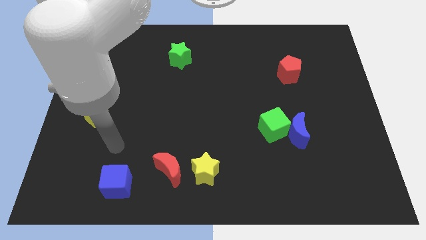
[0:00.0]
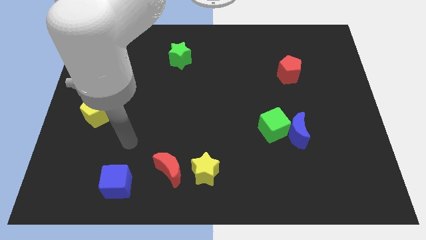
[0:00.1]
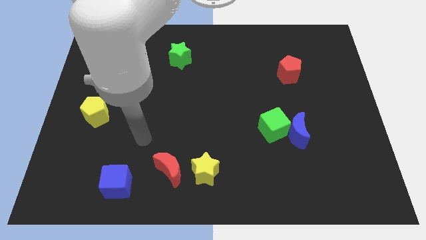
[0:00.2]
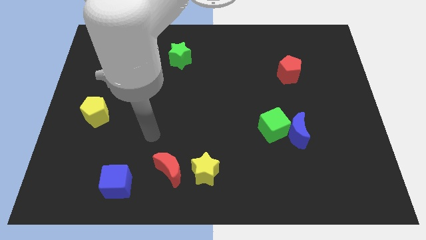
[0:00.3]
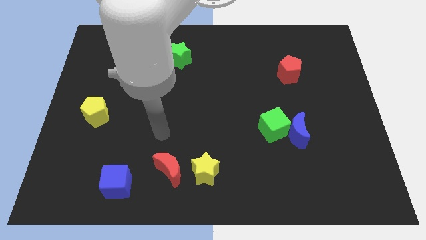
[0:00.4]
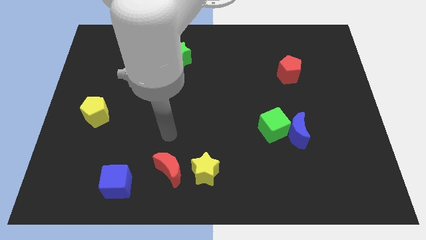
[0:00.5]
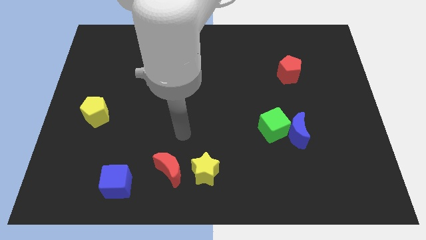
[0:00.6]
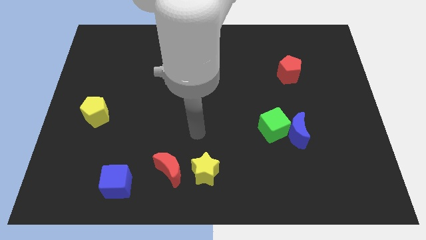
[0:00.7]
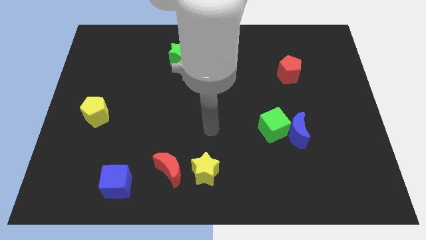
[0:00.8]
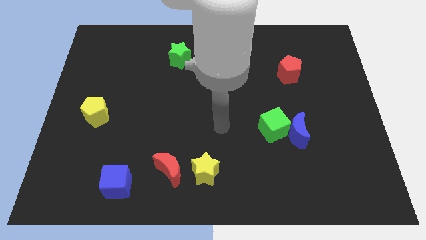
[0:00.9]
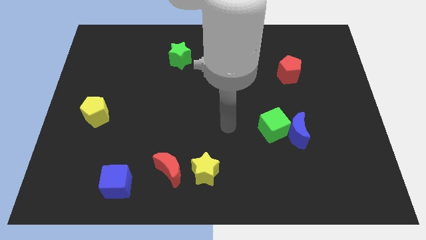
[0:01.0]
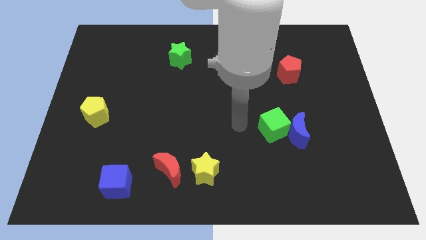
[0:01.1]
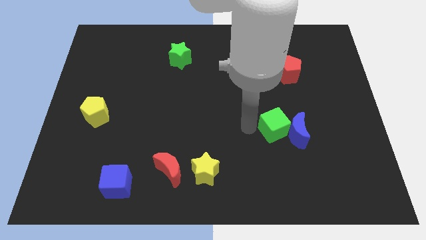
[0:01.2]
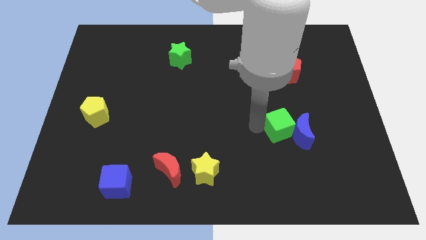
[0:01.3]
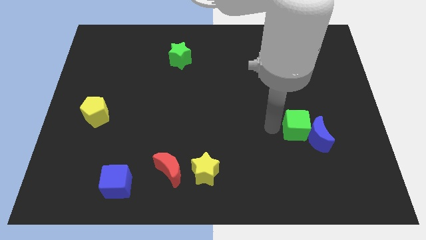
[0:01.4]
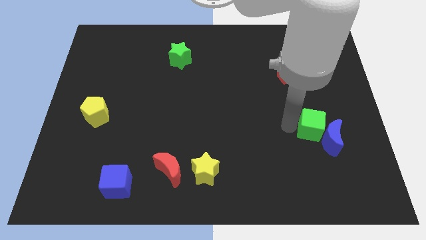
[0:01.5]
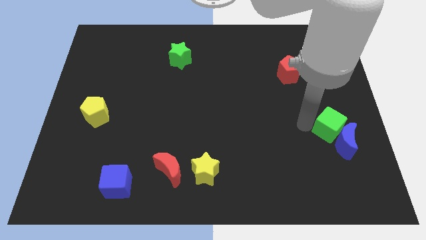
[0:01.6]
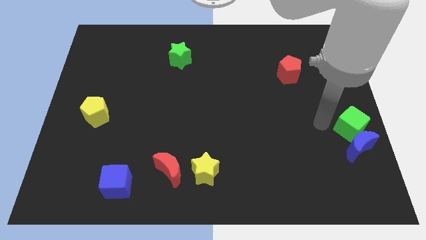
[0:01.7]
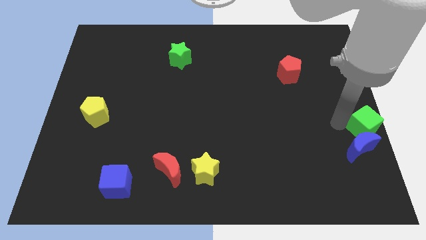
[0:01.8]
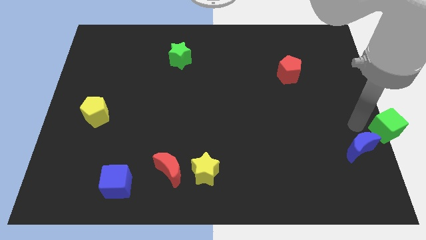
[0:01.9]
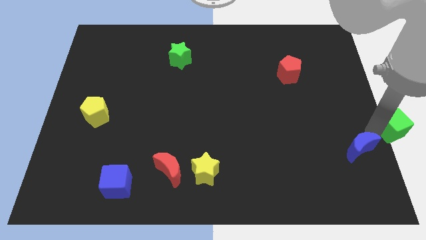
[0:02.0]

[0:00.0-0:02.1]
pull the blue moon apart from the green cube

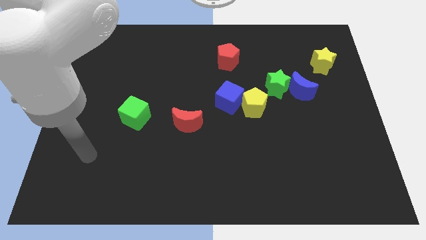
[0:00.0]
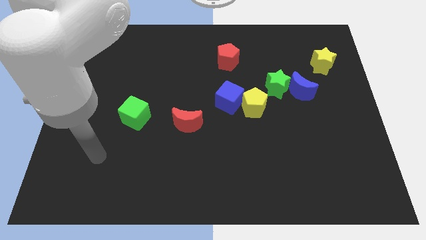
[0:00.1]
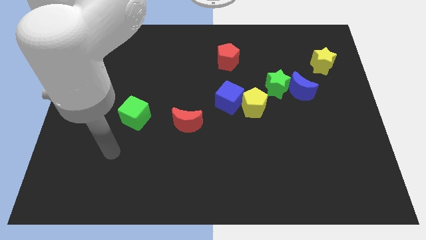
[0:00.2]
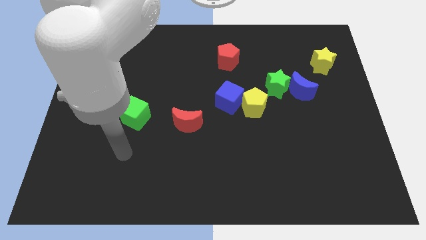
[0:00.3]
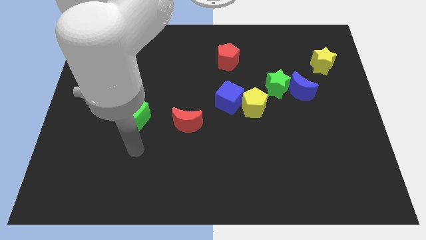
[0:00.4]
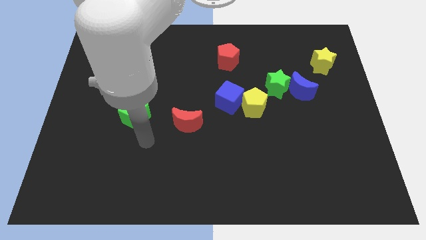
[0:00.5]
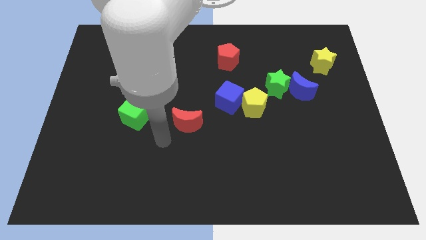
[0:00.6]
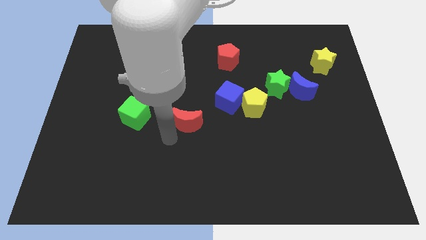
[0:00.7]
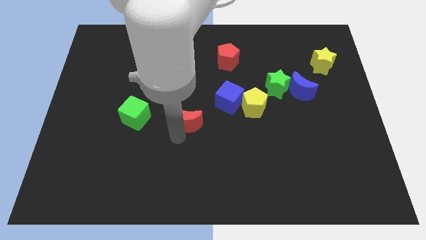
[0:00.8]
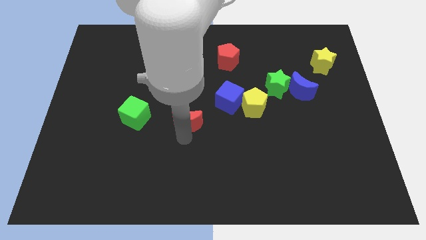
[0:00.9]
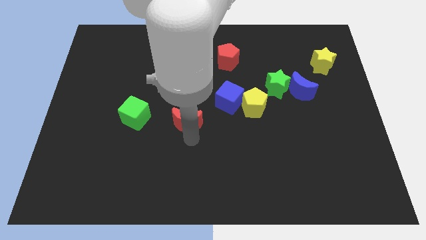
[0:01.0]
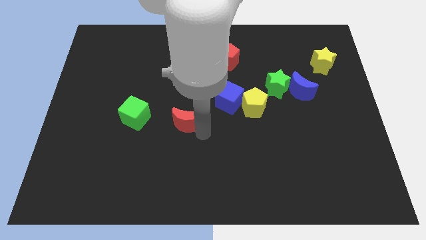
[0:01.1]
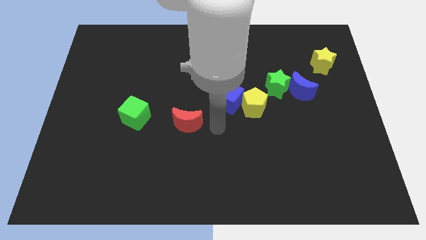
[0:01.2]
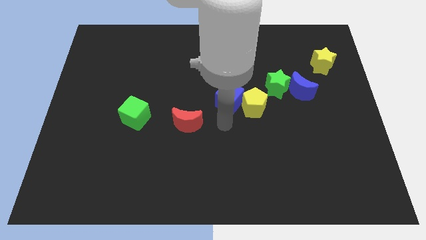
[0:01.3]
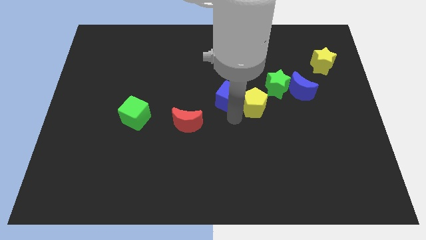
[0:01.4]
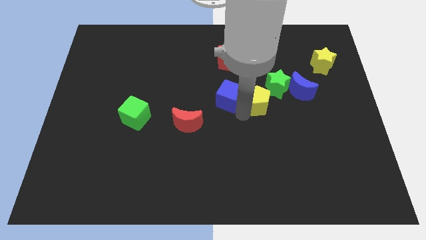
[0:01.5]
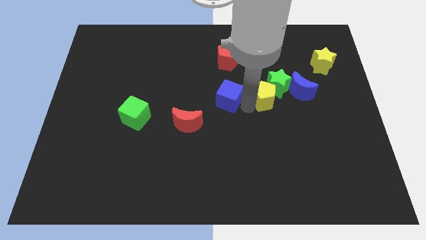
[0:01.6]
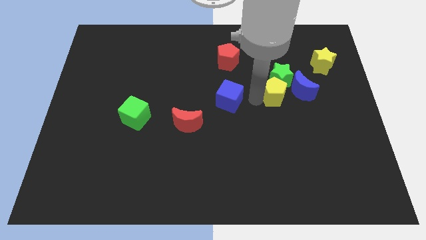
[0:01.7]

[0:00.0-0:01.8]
move the blue cube away from the yellow pentagon

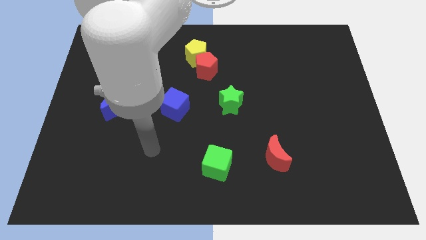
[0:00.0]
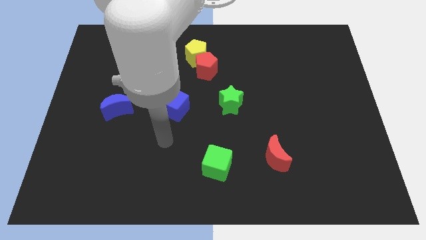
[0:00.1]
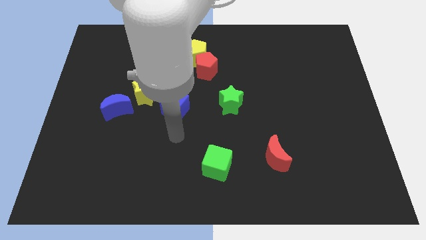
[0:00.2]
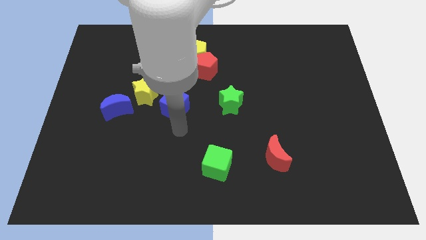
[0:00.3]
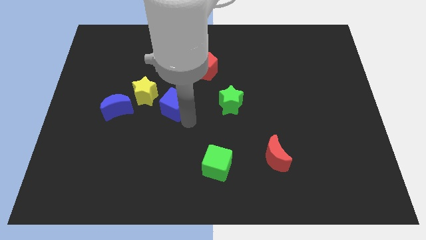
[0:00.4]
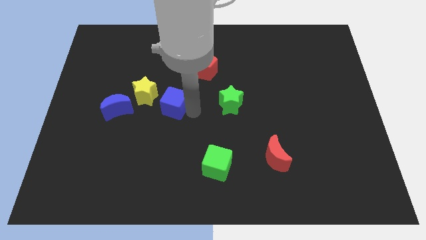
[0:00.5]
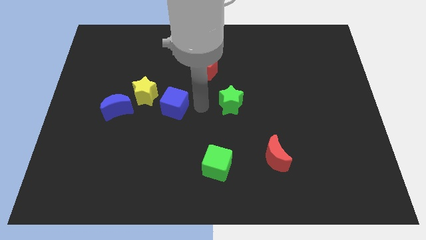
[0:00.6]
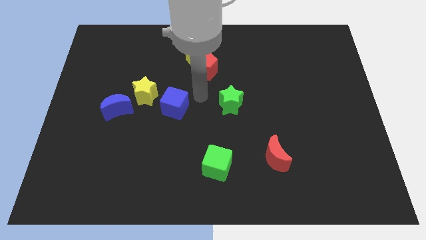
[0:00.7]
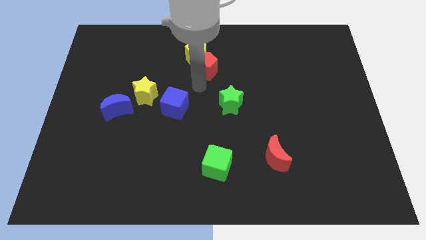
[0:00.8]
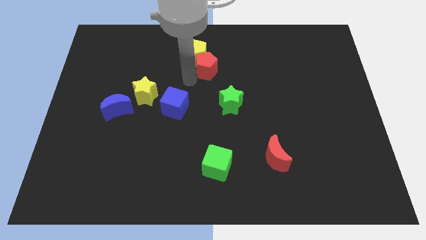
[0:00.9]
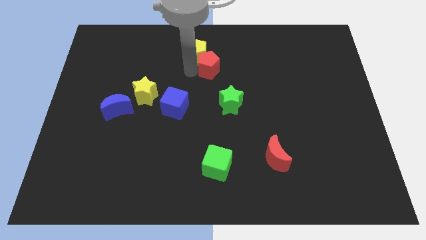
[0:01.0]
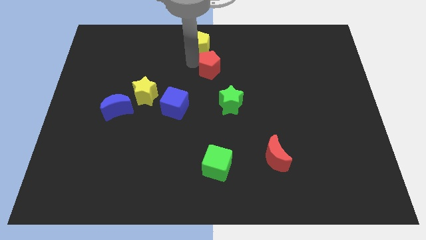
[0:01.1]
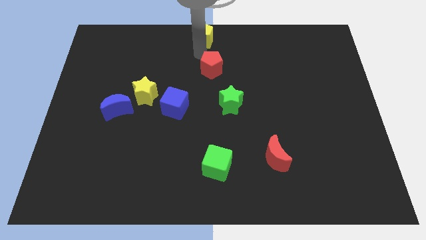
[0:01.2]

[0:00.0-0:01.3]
separate the red pentagon from the yellow pentagon

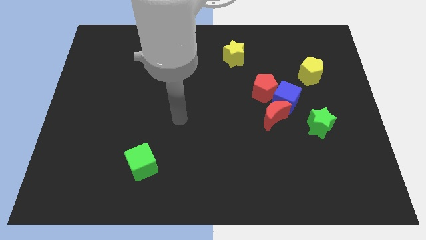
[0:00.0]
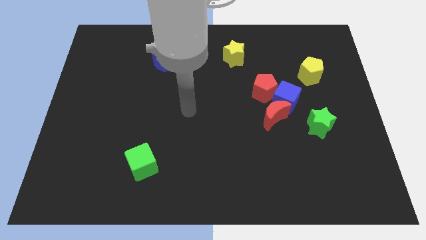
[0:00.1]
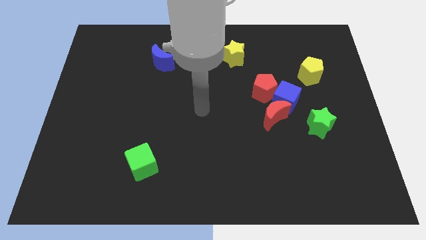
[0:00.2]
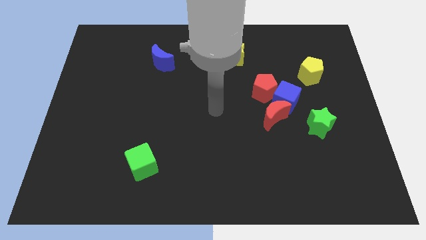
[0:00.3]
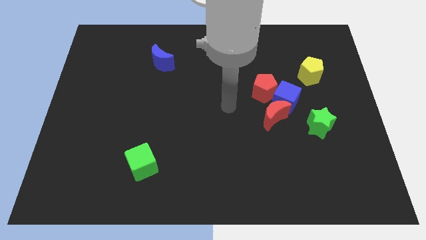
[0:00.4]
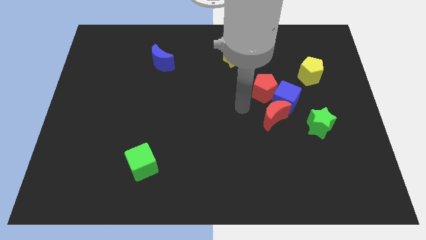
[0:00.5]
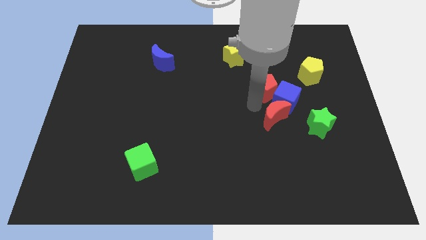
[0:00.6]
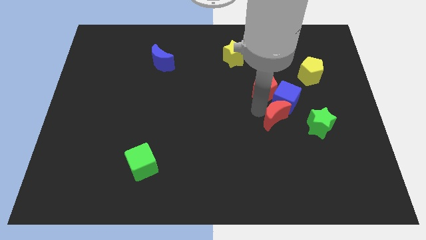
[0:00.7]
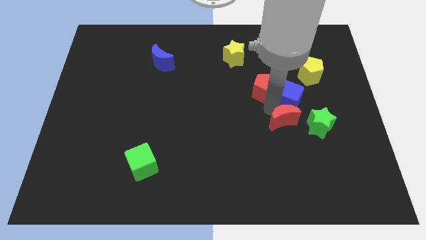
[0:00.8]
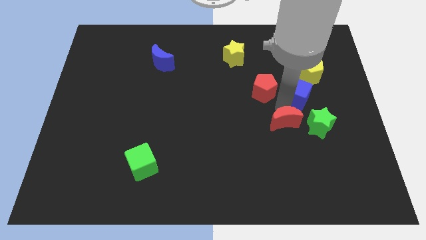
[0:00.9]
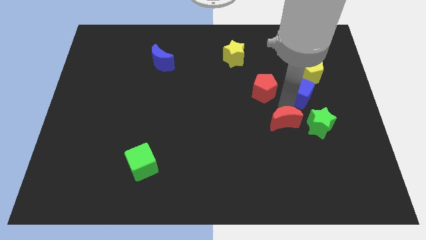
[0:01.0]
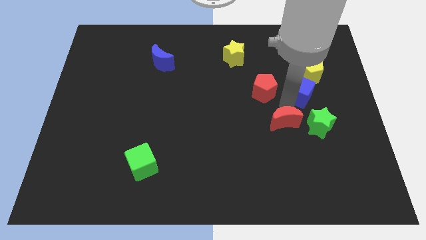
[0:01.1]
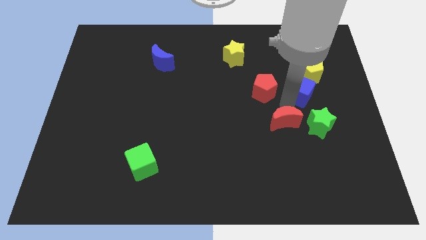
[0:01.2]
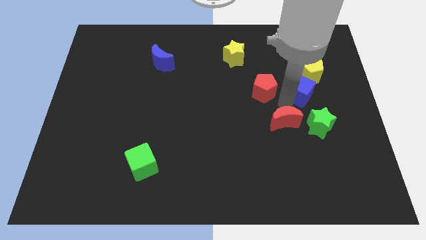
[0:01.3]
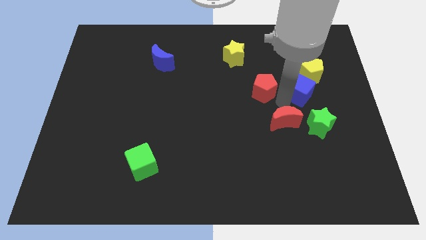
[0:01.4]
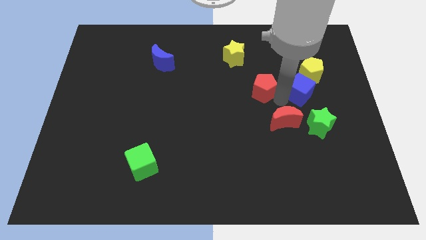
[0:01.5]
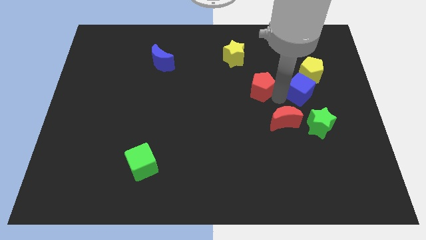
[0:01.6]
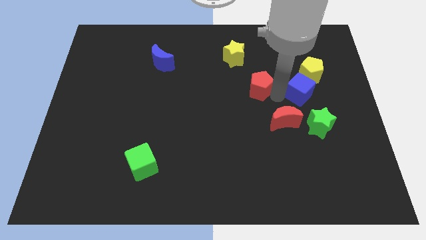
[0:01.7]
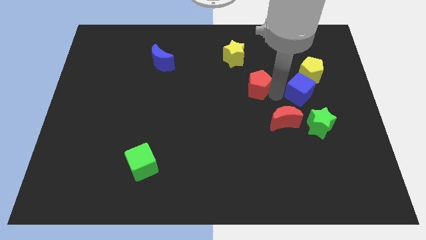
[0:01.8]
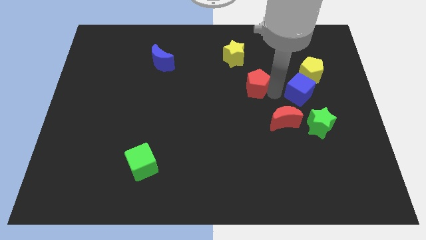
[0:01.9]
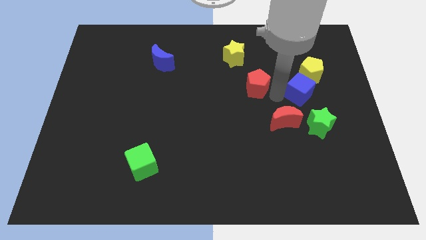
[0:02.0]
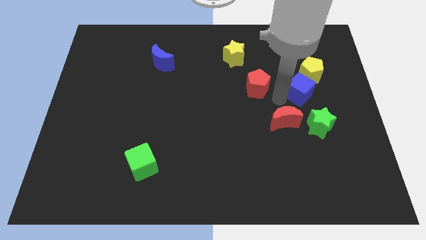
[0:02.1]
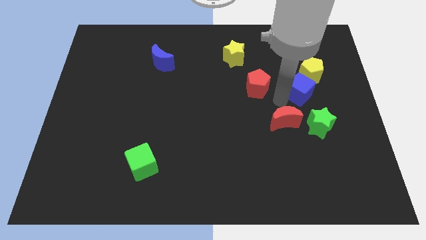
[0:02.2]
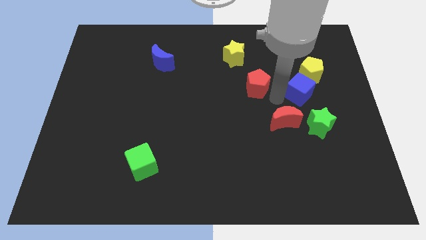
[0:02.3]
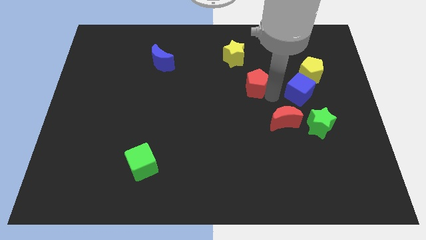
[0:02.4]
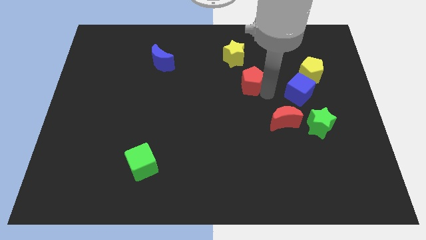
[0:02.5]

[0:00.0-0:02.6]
pull the red pentagon apart from the blue cube and red moon

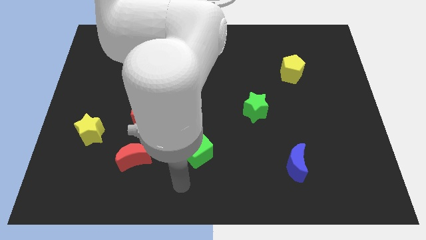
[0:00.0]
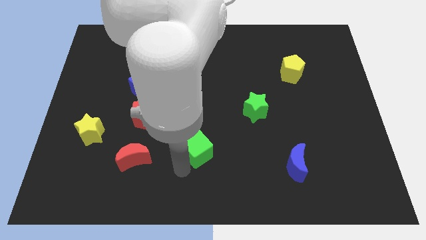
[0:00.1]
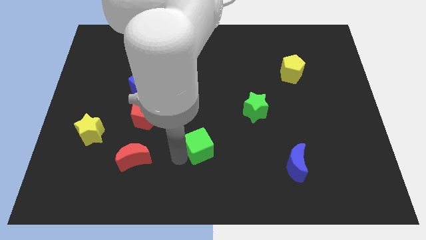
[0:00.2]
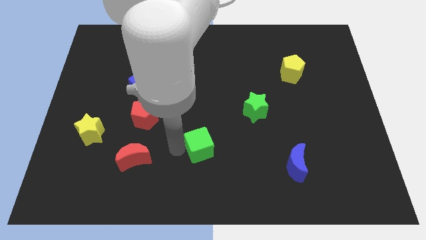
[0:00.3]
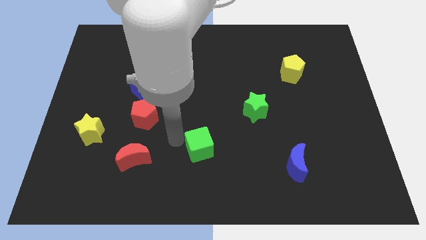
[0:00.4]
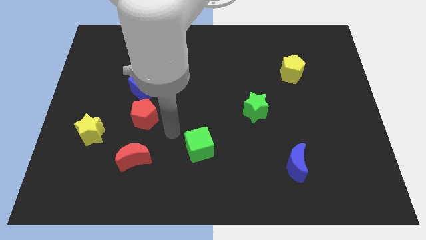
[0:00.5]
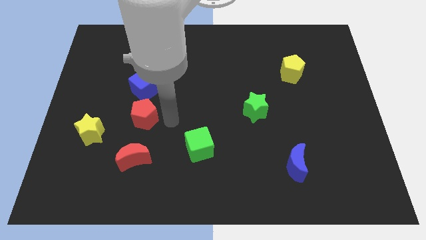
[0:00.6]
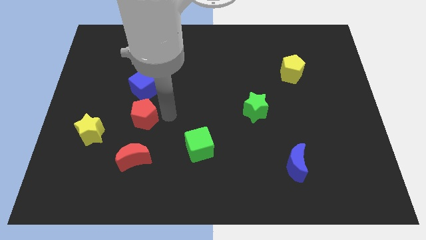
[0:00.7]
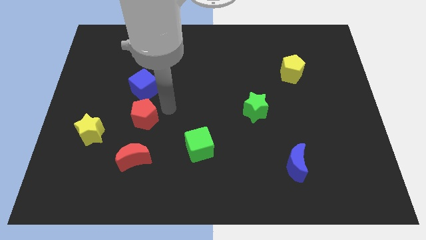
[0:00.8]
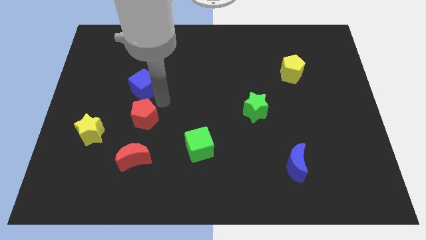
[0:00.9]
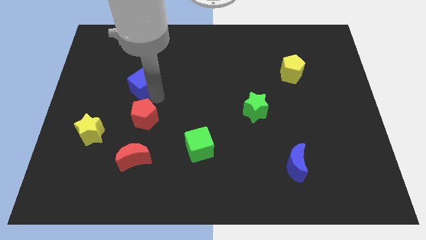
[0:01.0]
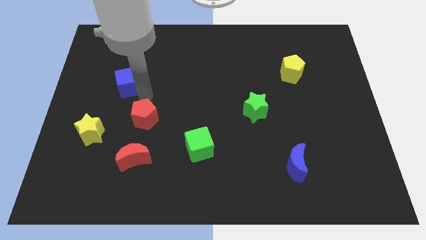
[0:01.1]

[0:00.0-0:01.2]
separate the red pentagon from the blue cube

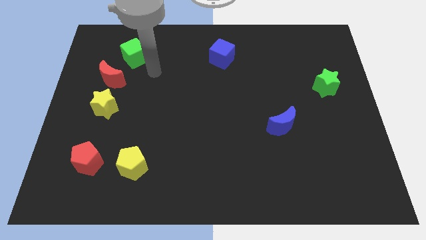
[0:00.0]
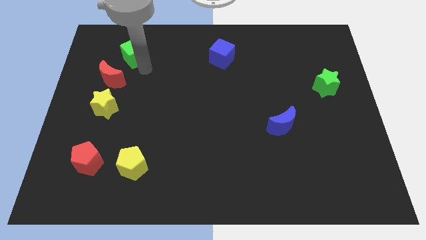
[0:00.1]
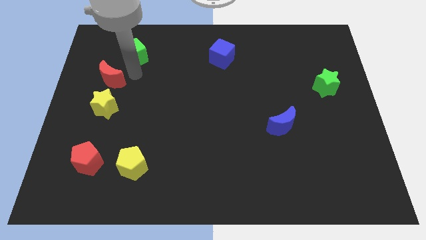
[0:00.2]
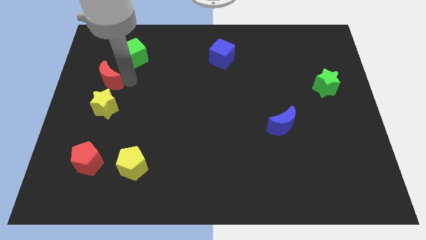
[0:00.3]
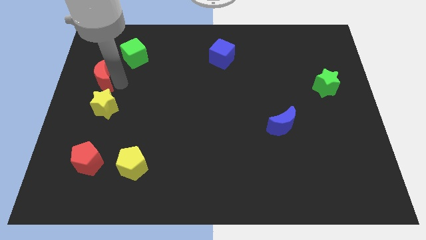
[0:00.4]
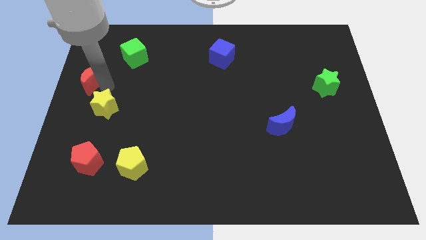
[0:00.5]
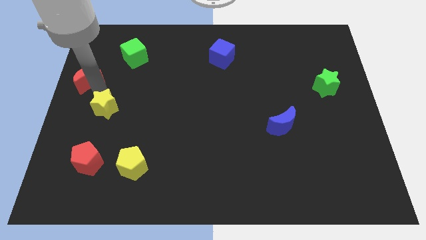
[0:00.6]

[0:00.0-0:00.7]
pull the yellow star apart from the red moon
